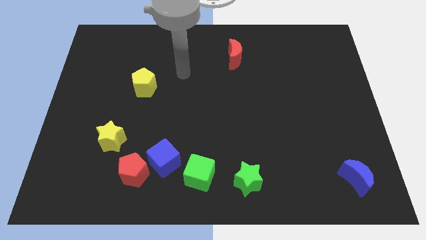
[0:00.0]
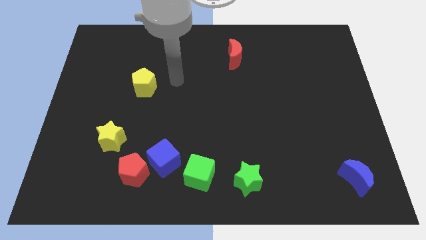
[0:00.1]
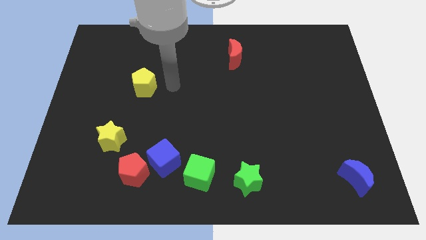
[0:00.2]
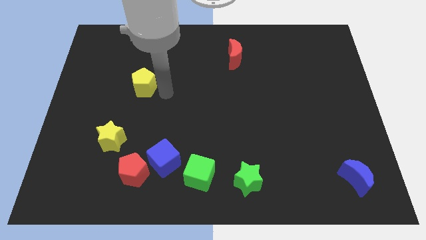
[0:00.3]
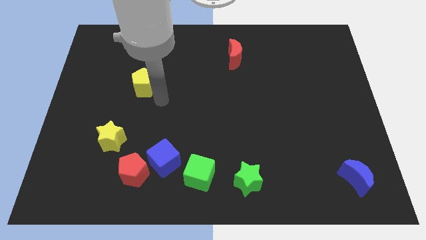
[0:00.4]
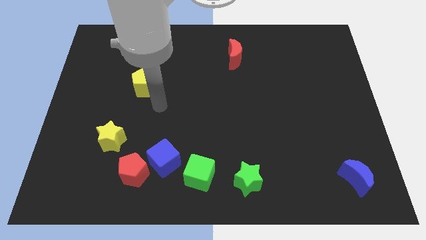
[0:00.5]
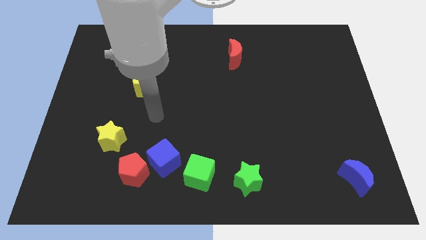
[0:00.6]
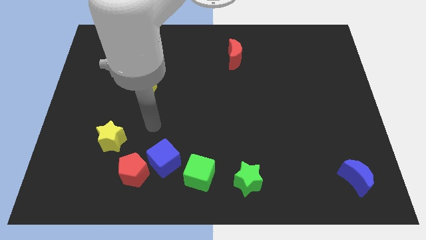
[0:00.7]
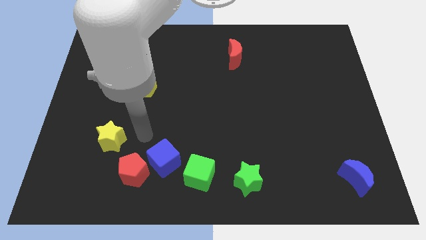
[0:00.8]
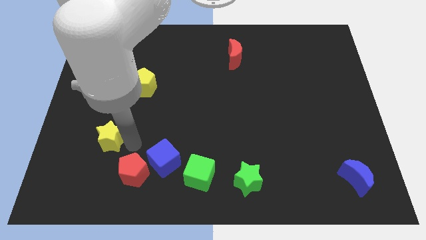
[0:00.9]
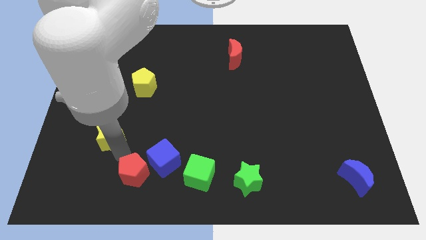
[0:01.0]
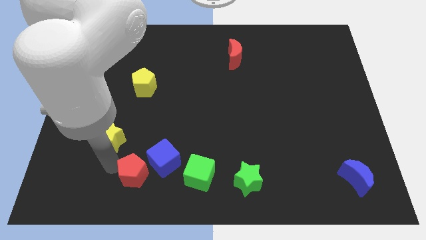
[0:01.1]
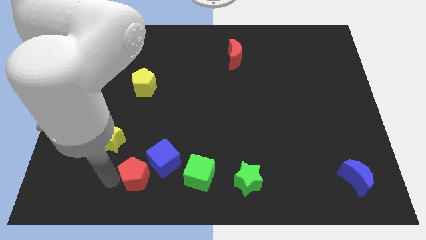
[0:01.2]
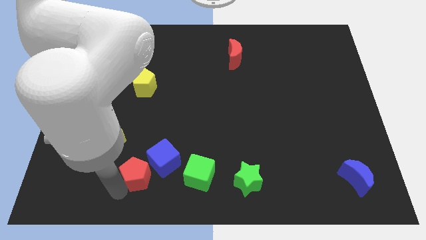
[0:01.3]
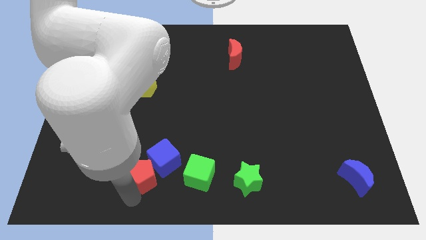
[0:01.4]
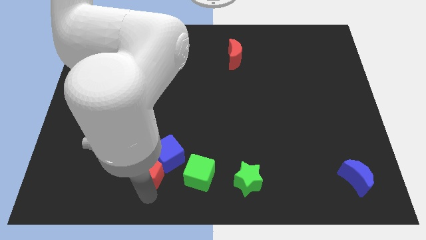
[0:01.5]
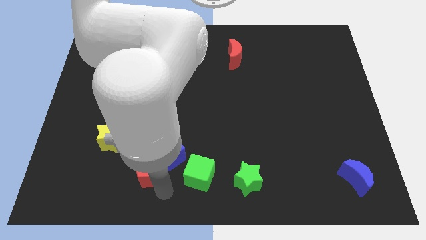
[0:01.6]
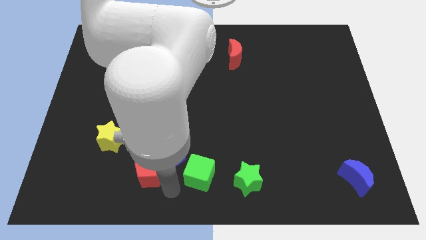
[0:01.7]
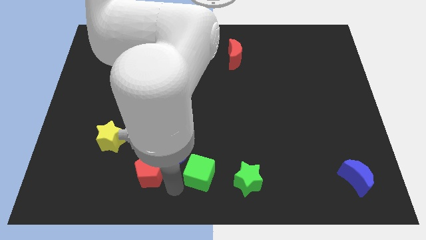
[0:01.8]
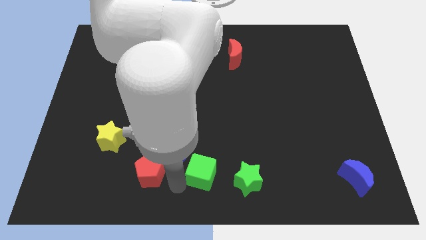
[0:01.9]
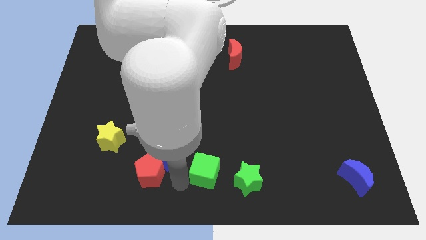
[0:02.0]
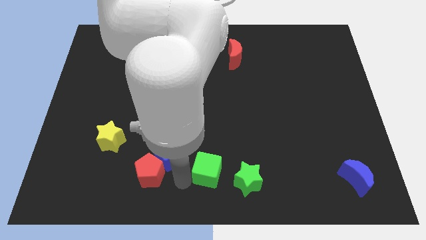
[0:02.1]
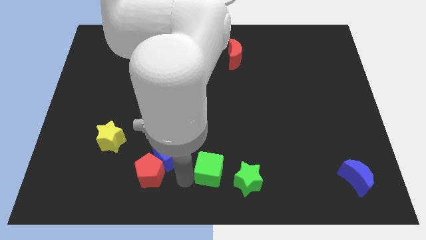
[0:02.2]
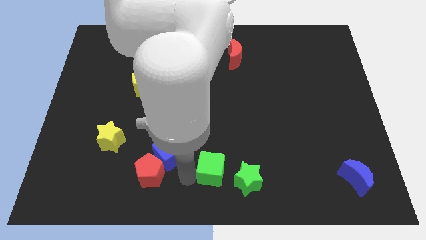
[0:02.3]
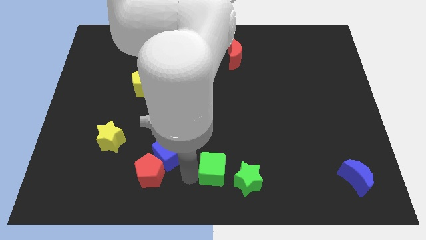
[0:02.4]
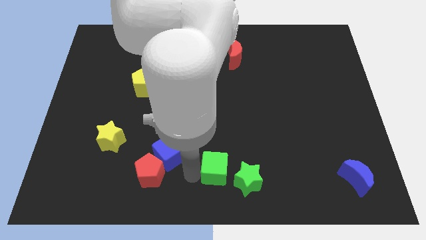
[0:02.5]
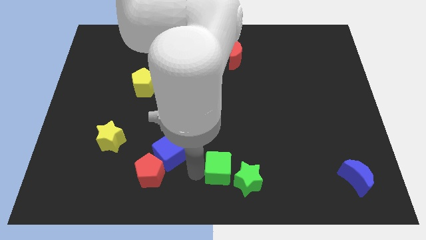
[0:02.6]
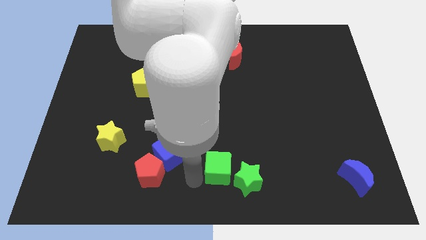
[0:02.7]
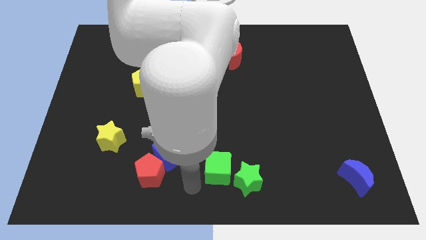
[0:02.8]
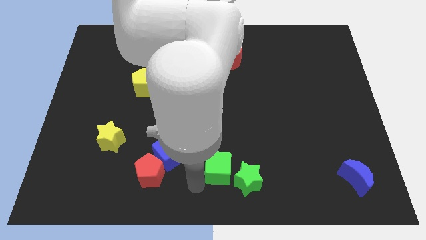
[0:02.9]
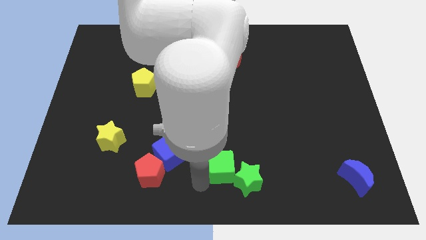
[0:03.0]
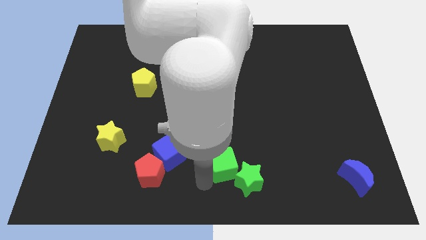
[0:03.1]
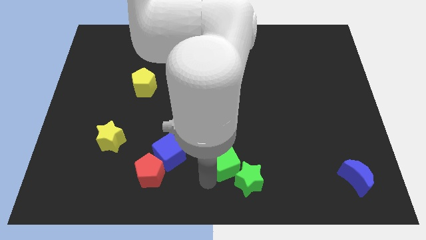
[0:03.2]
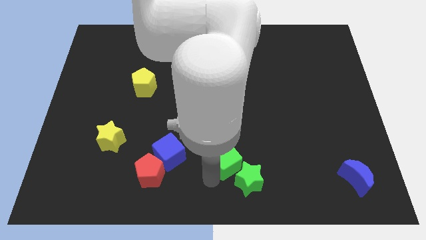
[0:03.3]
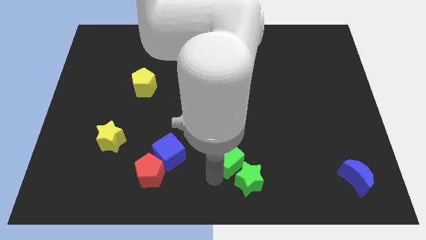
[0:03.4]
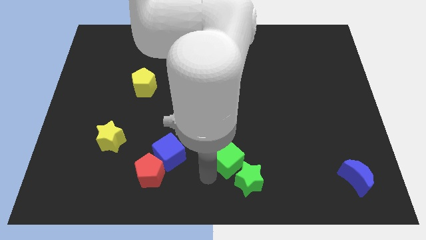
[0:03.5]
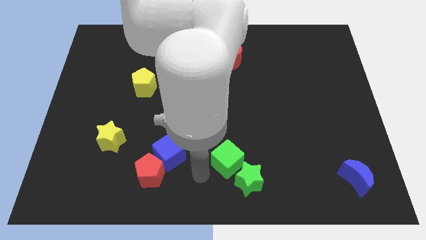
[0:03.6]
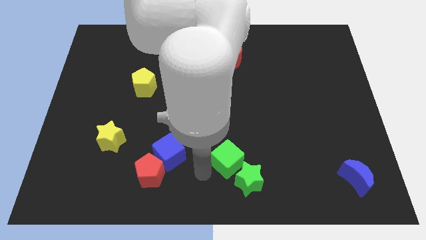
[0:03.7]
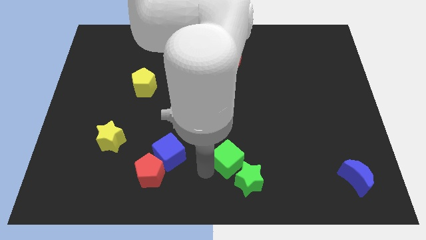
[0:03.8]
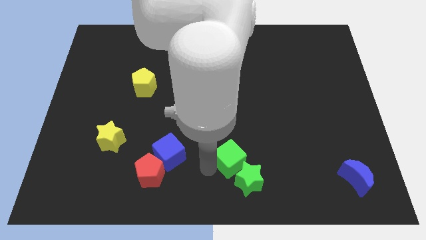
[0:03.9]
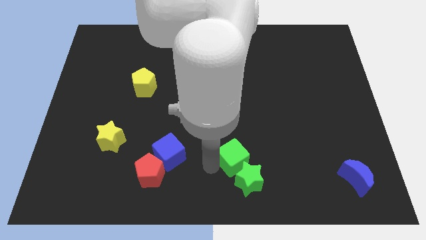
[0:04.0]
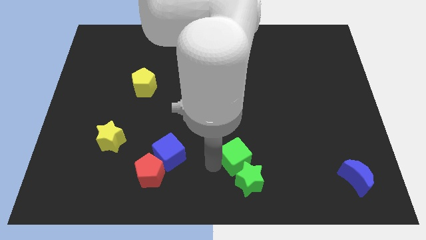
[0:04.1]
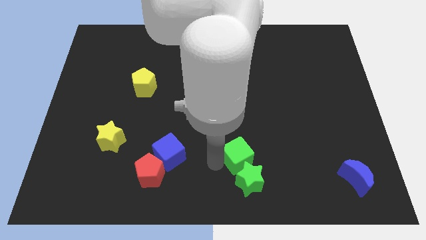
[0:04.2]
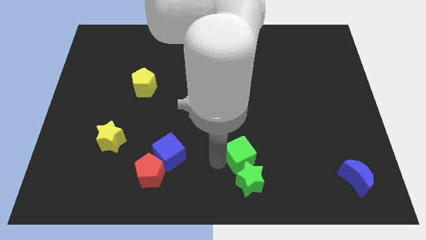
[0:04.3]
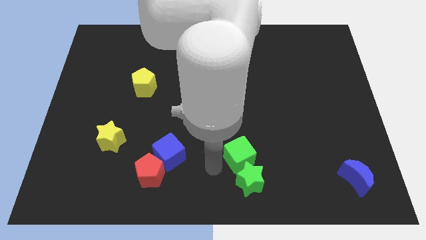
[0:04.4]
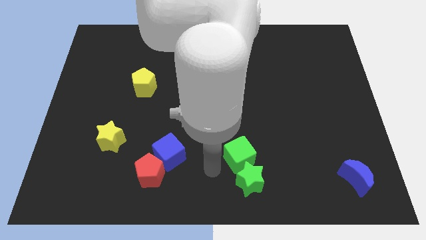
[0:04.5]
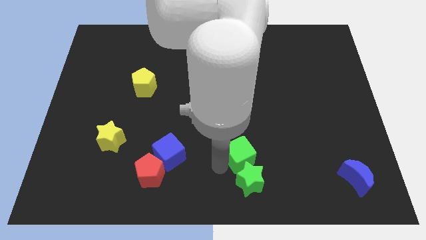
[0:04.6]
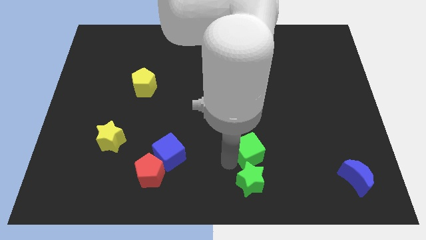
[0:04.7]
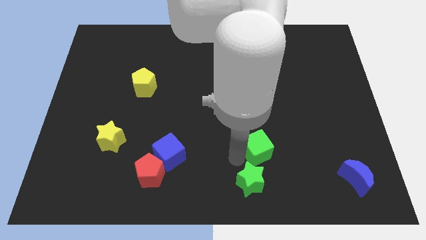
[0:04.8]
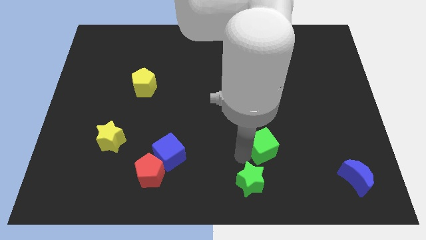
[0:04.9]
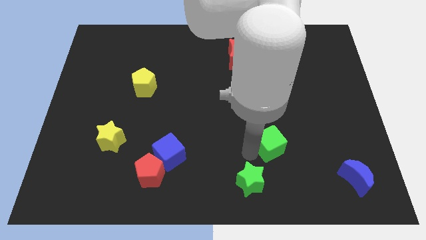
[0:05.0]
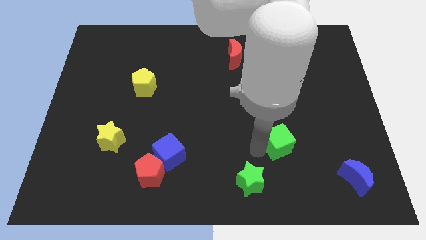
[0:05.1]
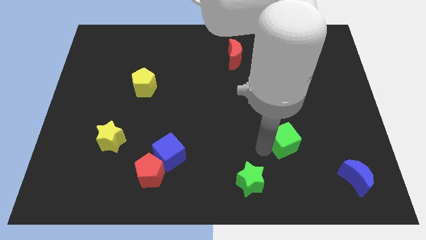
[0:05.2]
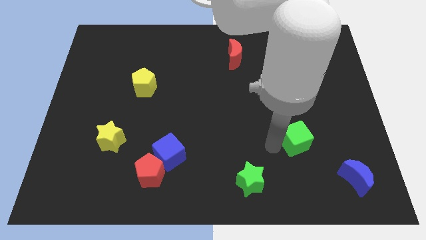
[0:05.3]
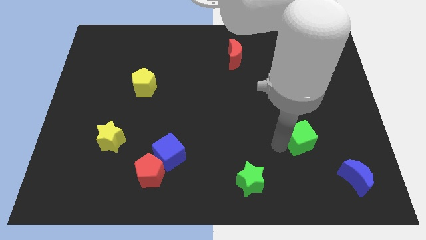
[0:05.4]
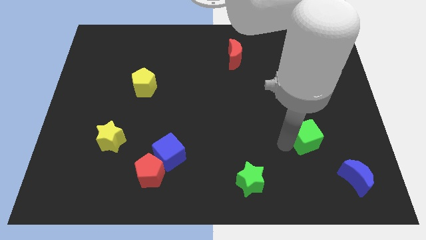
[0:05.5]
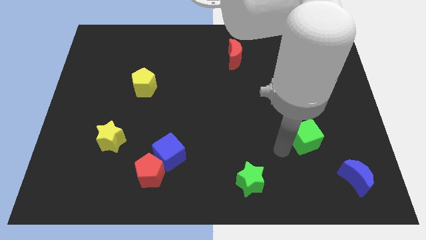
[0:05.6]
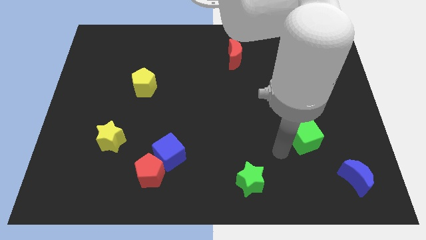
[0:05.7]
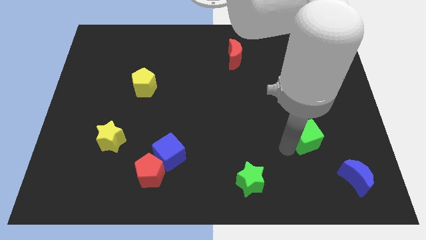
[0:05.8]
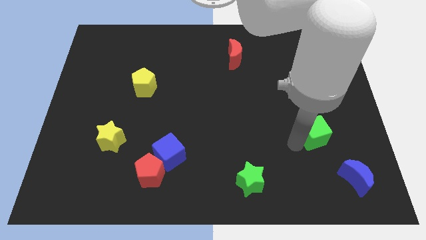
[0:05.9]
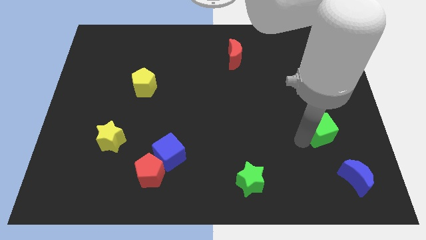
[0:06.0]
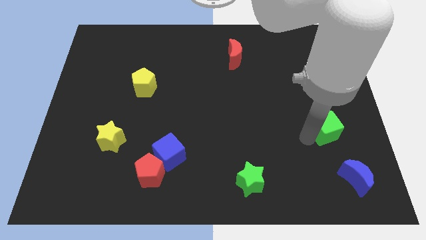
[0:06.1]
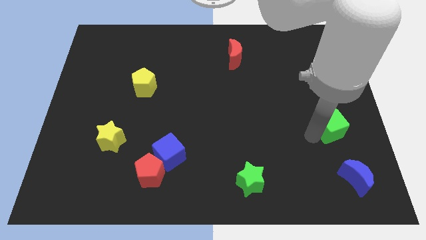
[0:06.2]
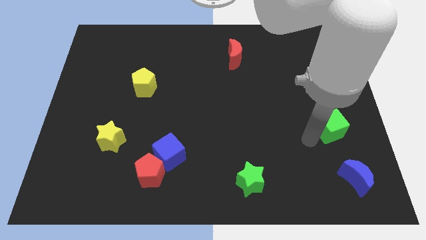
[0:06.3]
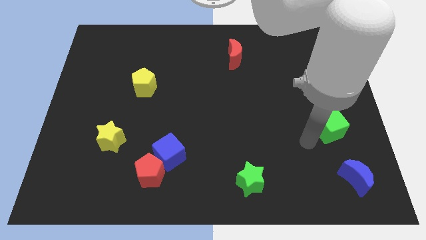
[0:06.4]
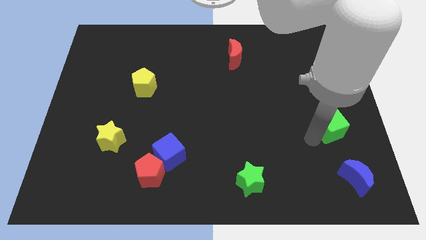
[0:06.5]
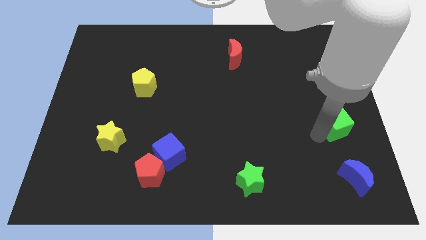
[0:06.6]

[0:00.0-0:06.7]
move the green cube to the right side
